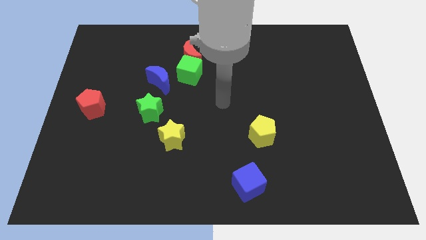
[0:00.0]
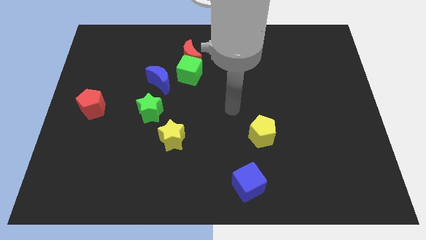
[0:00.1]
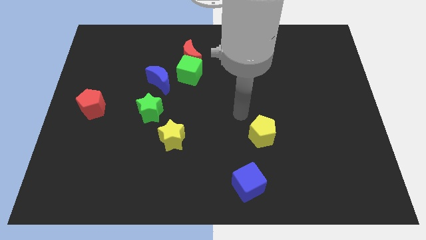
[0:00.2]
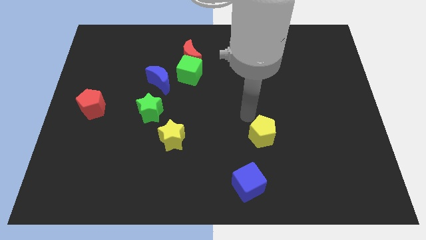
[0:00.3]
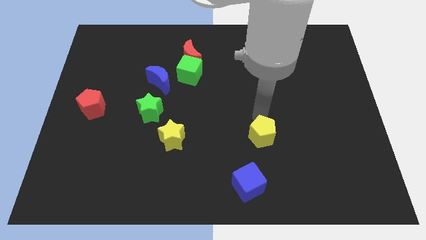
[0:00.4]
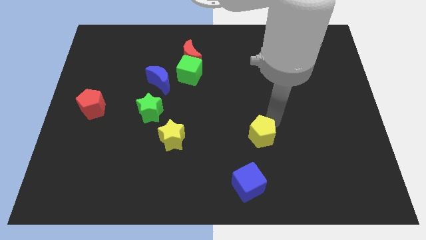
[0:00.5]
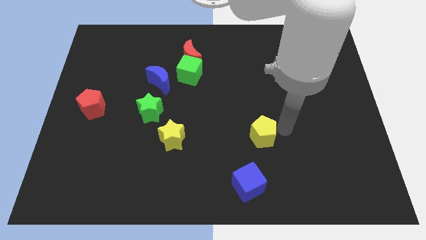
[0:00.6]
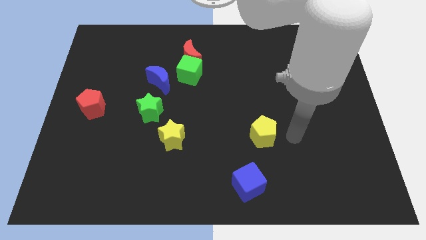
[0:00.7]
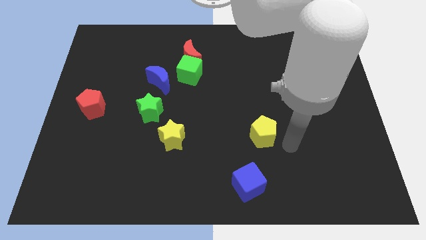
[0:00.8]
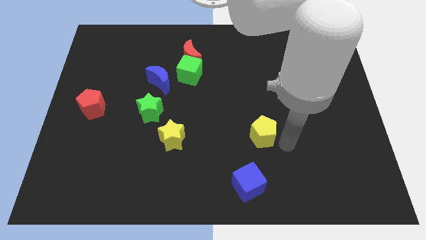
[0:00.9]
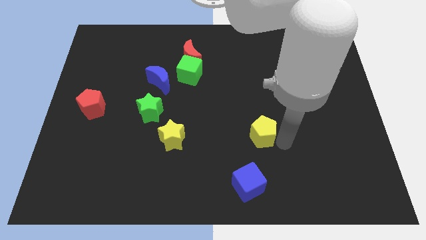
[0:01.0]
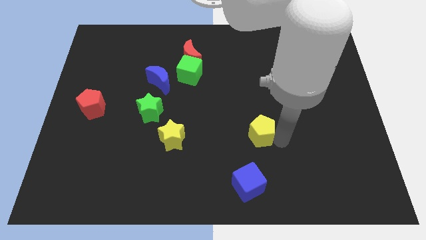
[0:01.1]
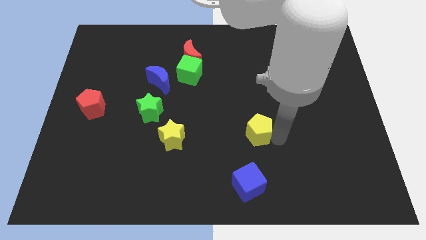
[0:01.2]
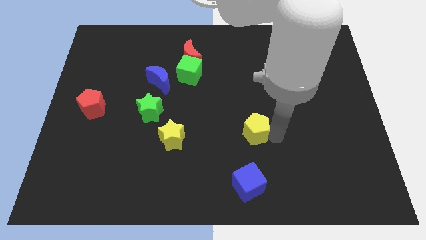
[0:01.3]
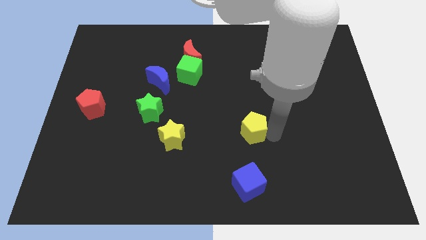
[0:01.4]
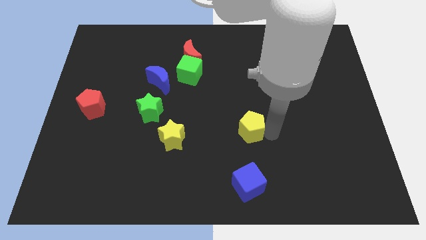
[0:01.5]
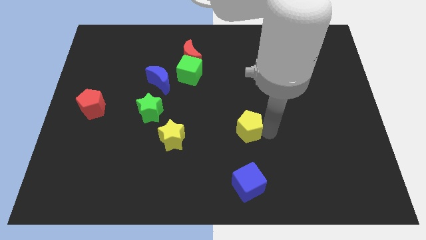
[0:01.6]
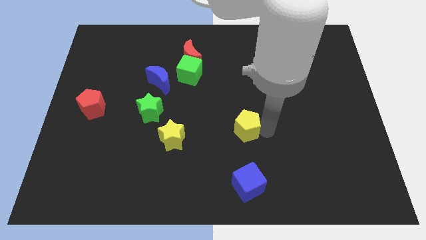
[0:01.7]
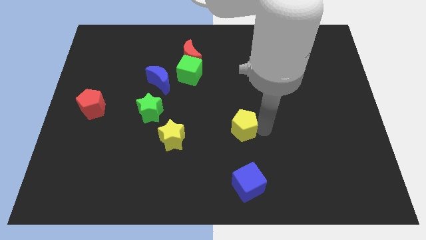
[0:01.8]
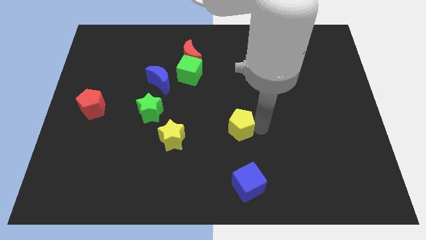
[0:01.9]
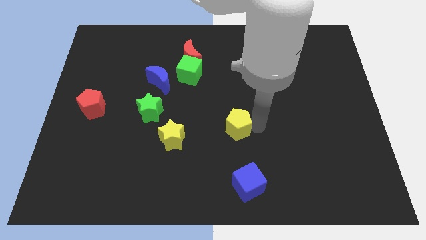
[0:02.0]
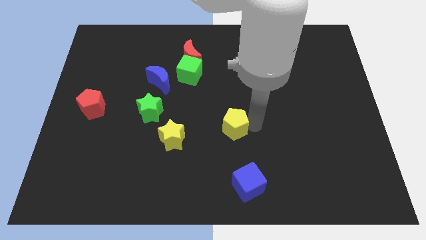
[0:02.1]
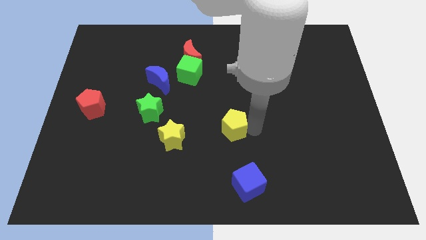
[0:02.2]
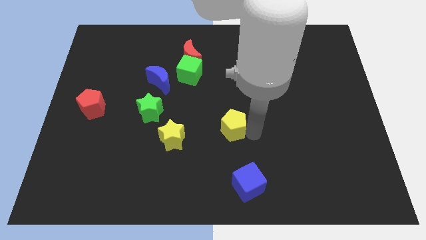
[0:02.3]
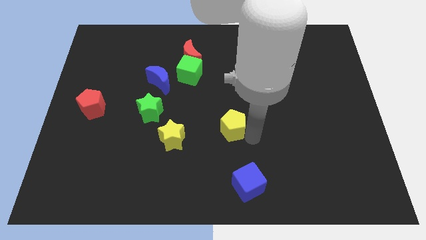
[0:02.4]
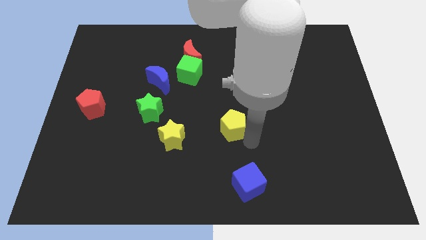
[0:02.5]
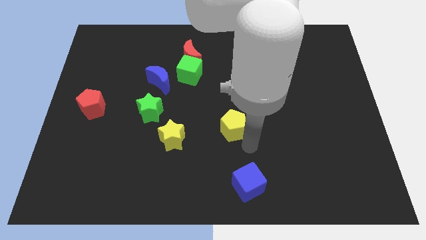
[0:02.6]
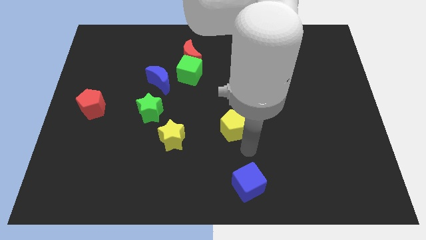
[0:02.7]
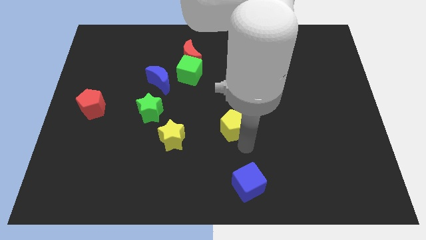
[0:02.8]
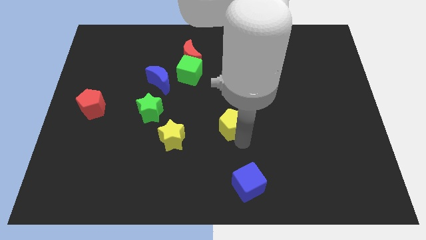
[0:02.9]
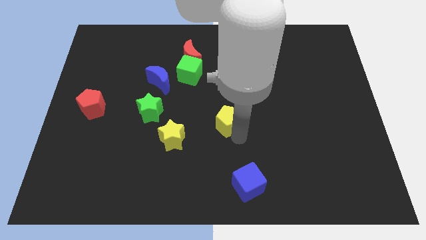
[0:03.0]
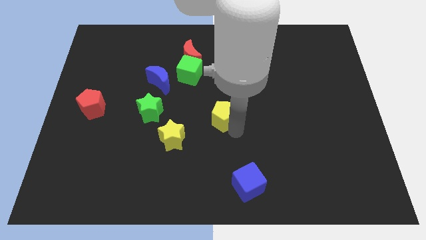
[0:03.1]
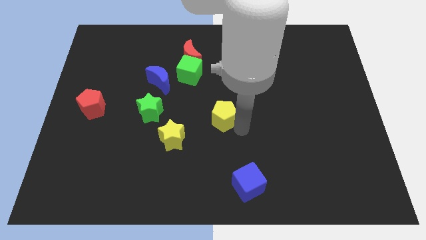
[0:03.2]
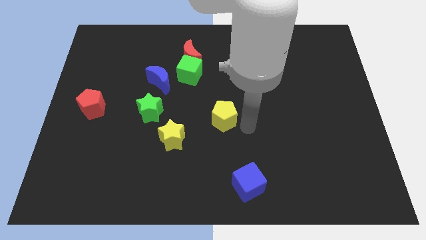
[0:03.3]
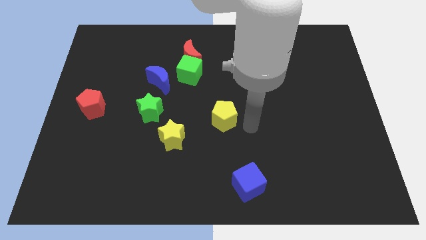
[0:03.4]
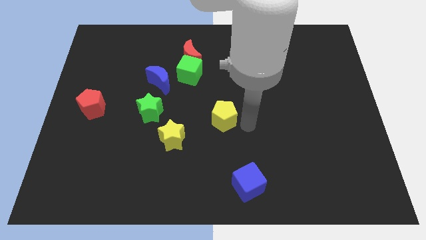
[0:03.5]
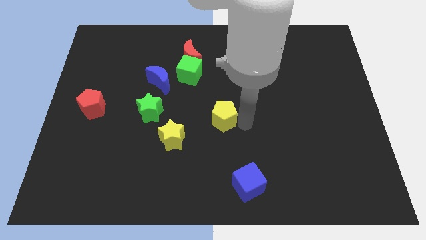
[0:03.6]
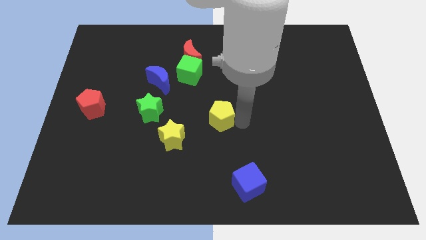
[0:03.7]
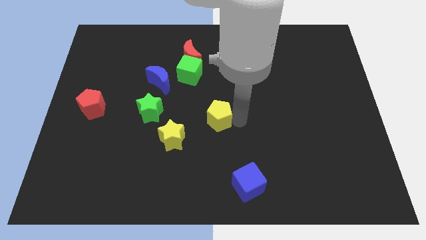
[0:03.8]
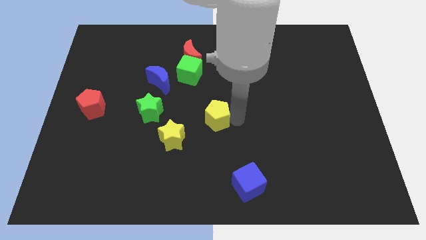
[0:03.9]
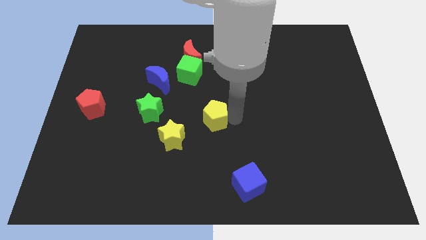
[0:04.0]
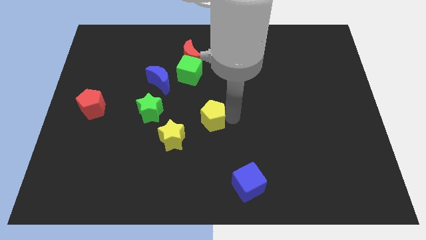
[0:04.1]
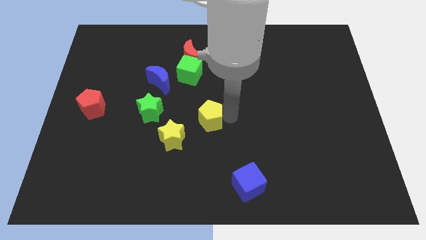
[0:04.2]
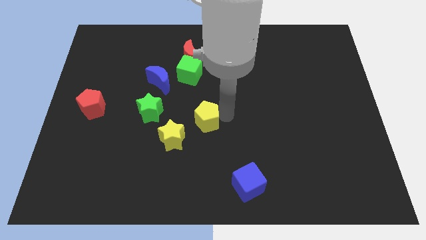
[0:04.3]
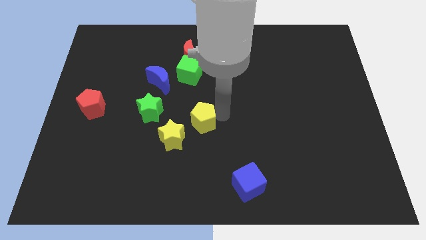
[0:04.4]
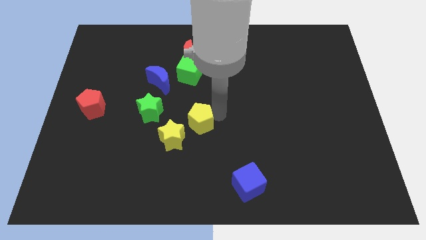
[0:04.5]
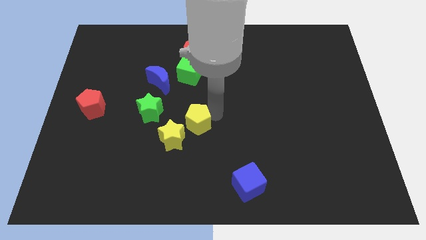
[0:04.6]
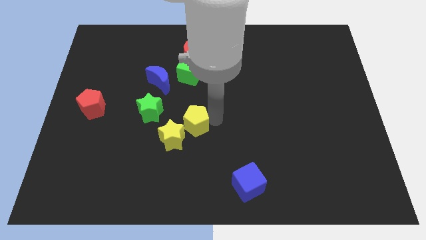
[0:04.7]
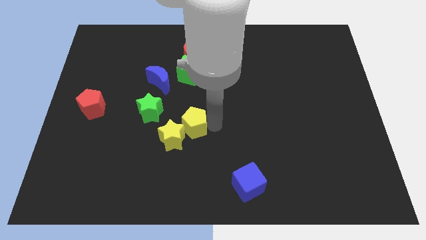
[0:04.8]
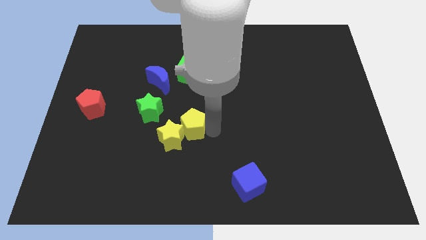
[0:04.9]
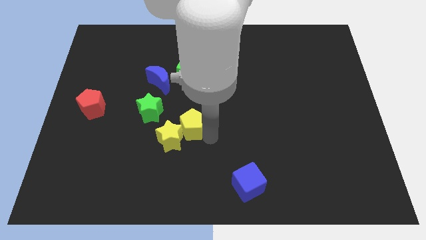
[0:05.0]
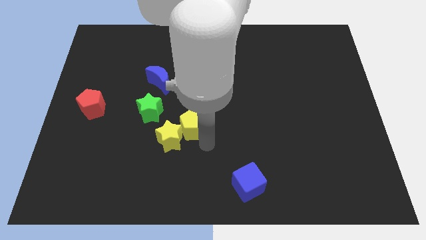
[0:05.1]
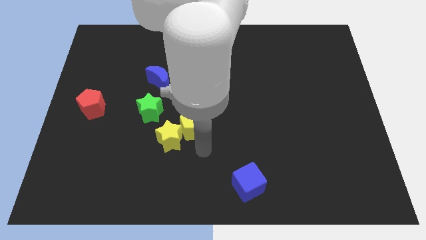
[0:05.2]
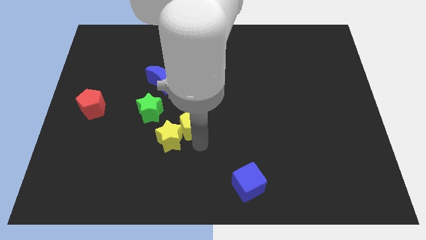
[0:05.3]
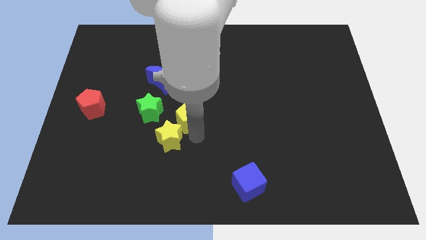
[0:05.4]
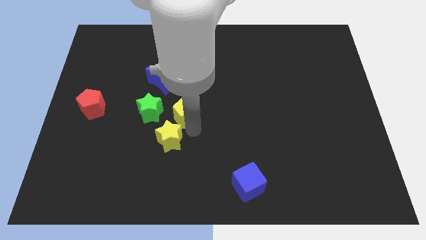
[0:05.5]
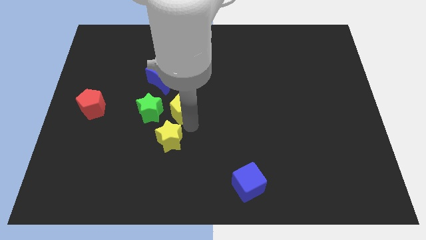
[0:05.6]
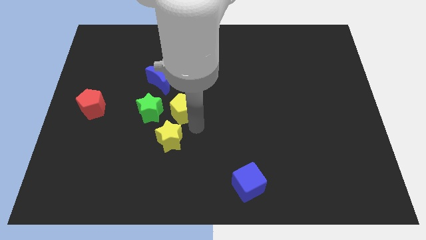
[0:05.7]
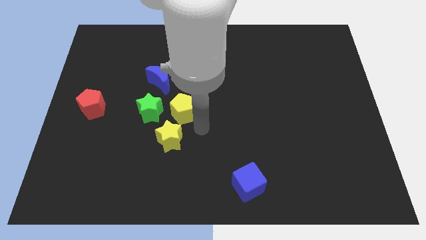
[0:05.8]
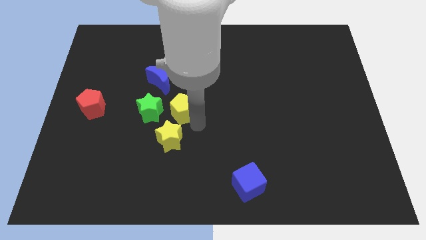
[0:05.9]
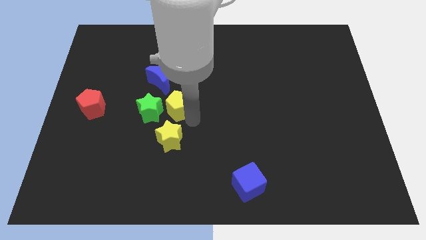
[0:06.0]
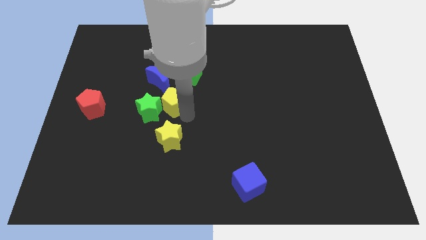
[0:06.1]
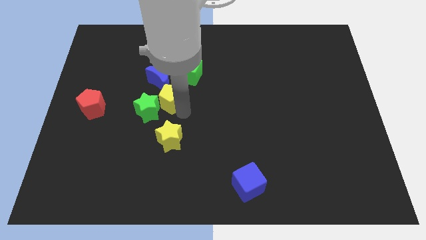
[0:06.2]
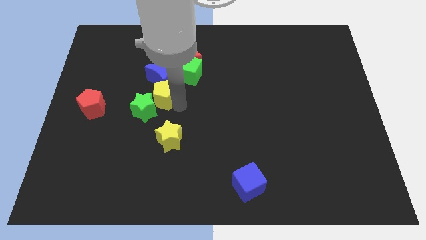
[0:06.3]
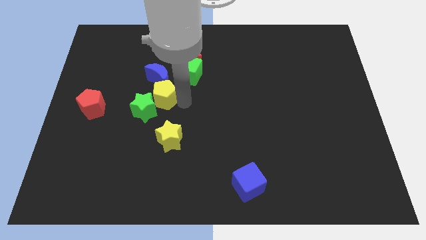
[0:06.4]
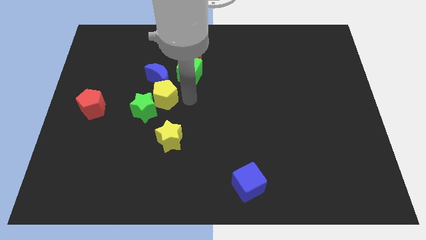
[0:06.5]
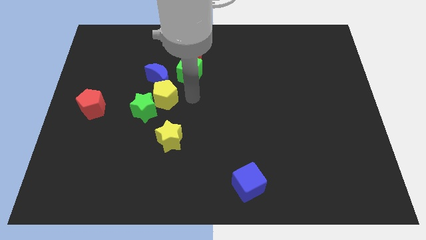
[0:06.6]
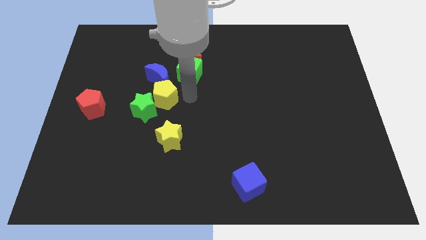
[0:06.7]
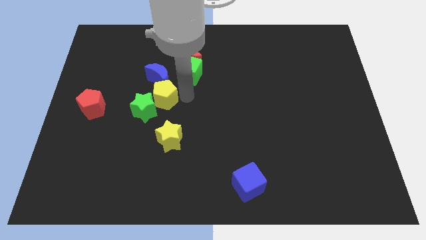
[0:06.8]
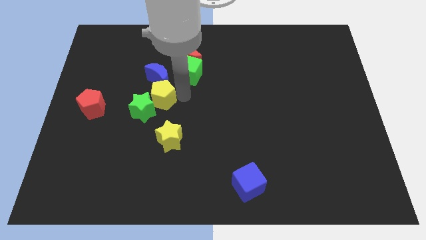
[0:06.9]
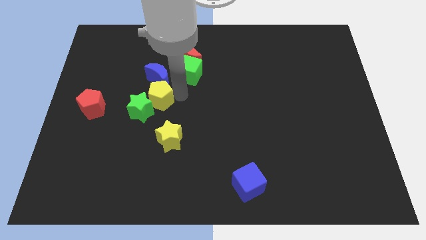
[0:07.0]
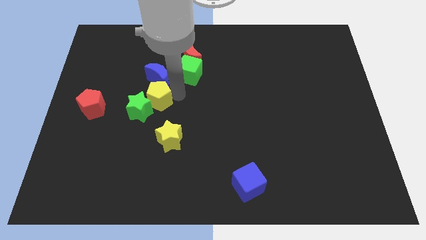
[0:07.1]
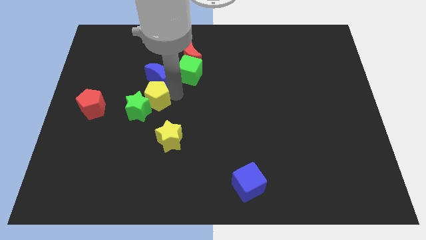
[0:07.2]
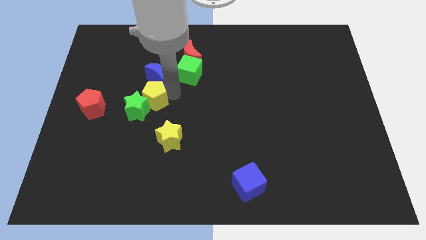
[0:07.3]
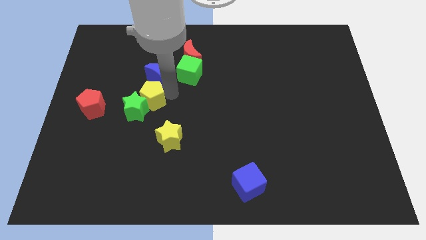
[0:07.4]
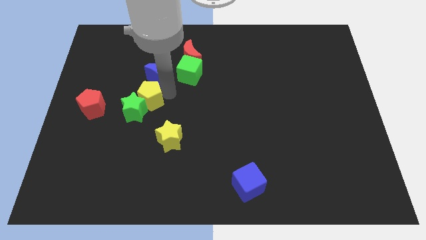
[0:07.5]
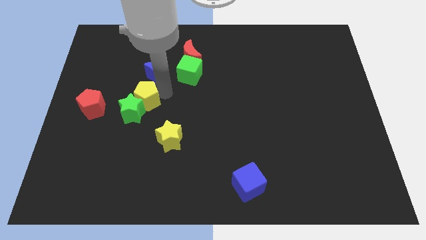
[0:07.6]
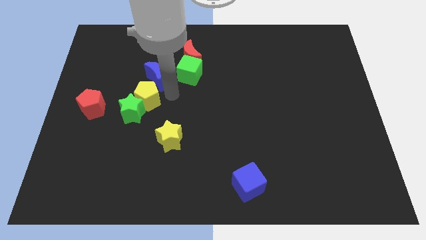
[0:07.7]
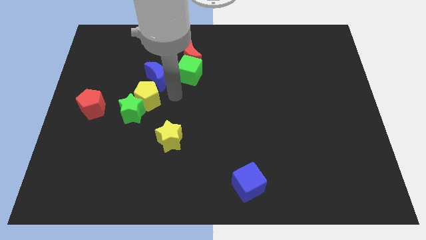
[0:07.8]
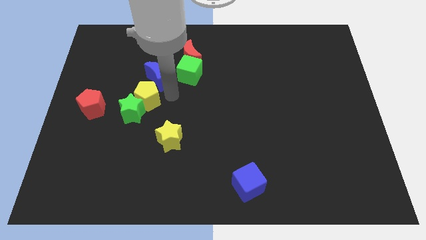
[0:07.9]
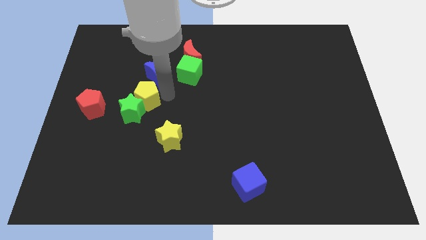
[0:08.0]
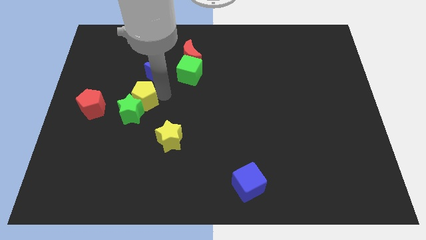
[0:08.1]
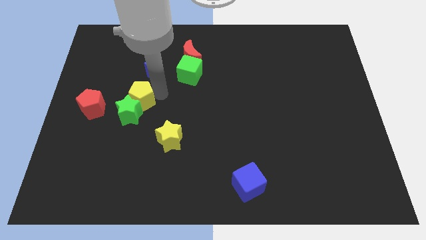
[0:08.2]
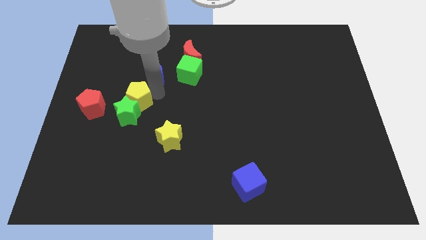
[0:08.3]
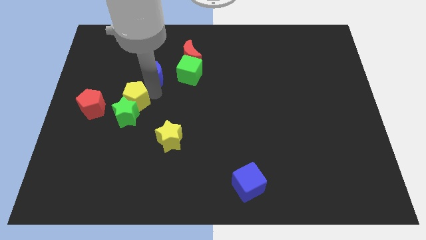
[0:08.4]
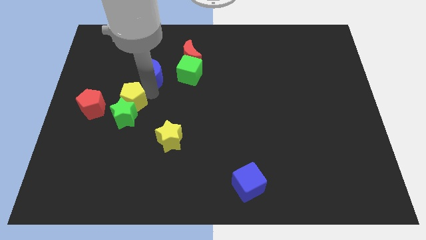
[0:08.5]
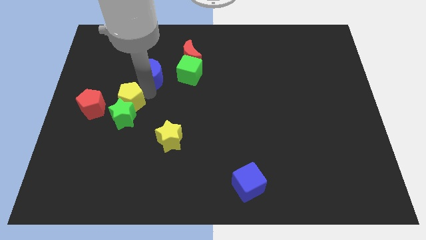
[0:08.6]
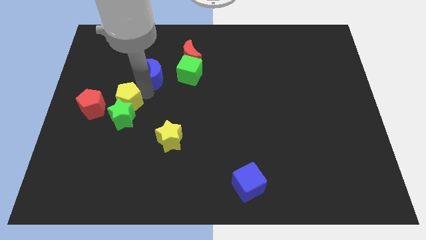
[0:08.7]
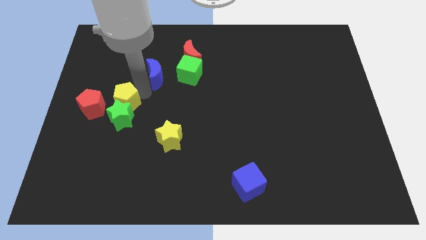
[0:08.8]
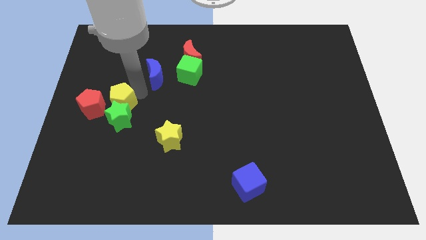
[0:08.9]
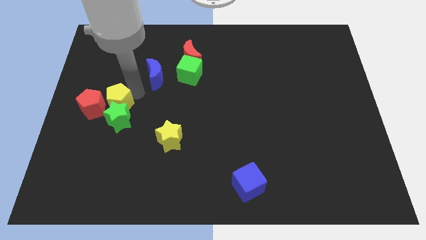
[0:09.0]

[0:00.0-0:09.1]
put the yellow pentagon close to the red pentagon
